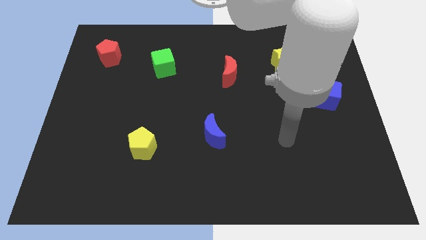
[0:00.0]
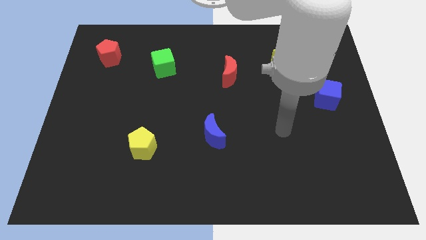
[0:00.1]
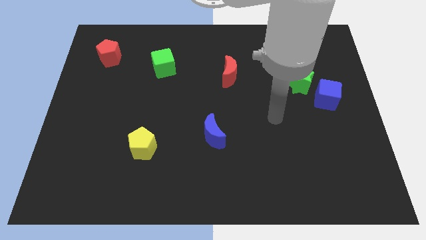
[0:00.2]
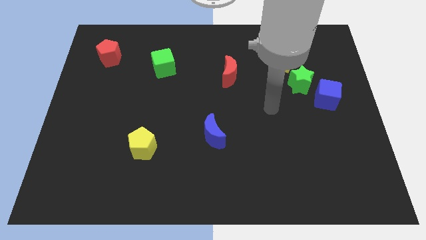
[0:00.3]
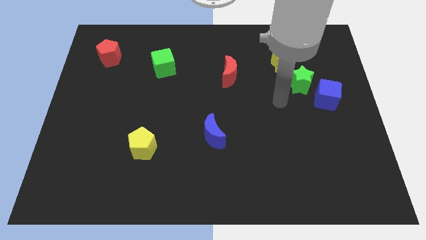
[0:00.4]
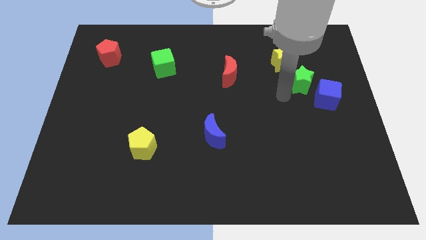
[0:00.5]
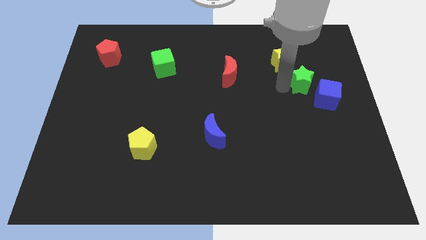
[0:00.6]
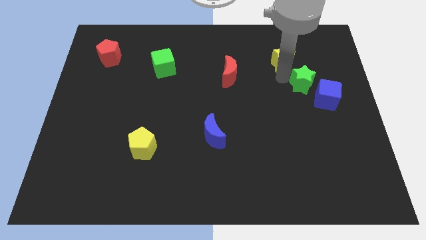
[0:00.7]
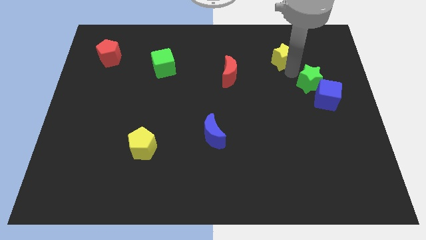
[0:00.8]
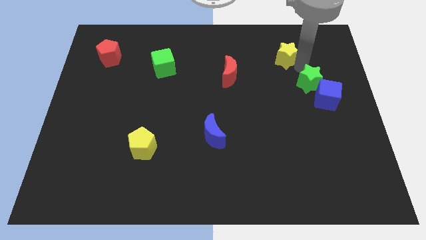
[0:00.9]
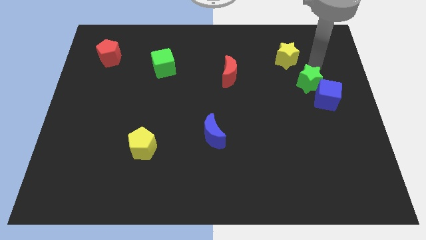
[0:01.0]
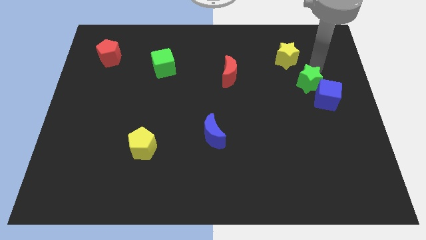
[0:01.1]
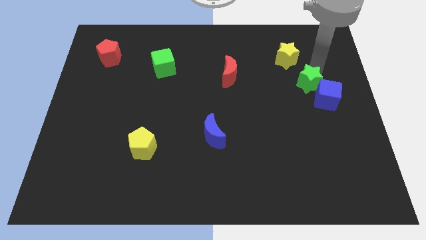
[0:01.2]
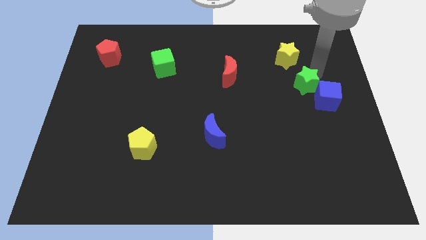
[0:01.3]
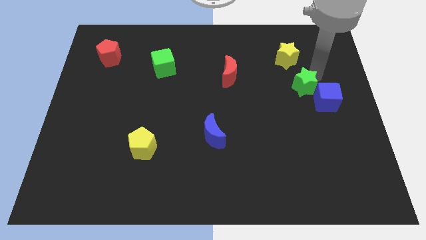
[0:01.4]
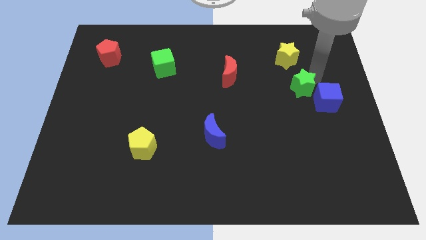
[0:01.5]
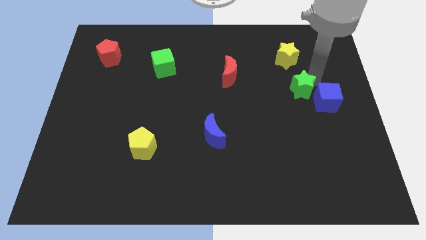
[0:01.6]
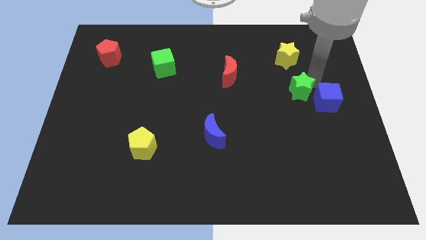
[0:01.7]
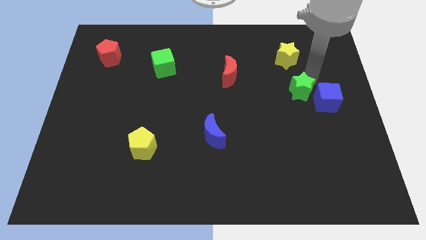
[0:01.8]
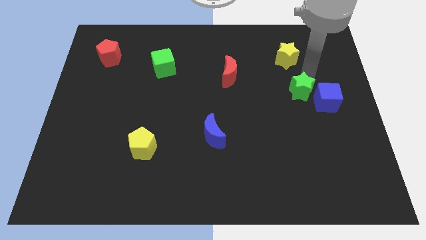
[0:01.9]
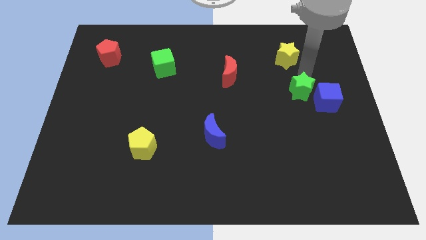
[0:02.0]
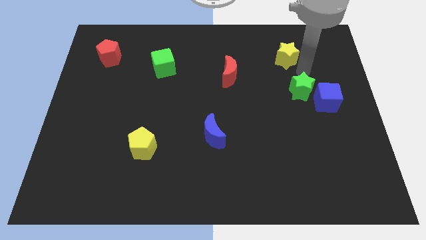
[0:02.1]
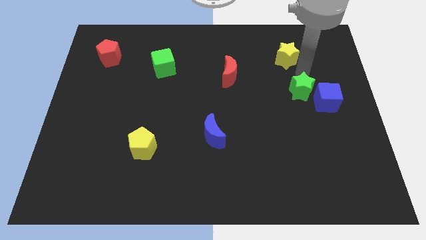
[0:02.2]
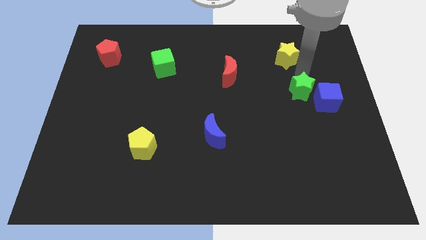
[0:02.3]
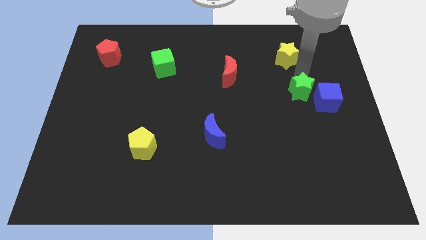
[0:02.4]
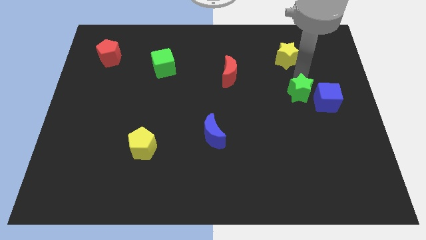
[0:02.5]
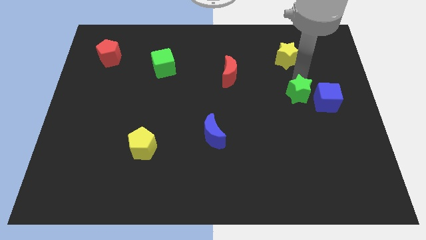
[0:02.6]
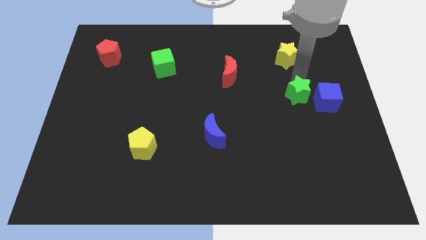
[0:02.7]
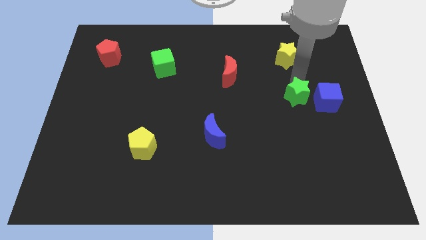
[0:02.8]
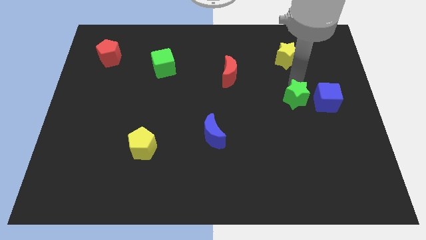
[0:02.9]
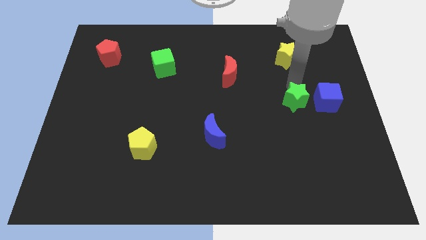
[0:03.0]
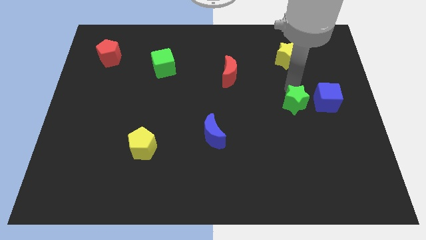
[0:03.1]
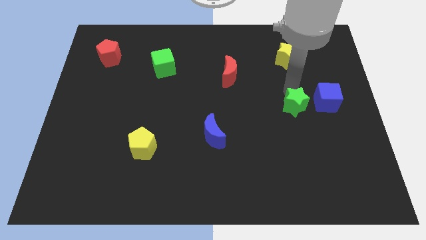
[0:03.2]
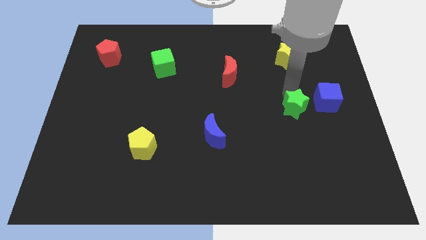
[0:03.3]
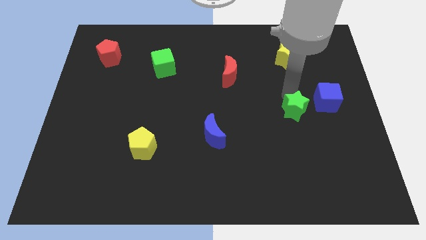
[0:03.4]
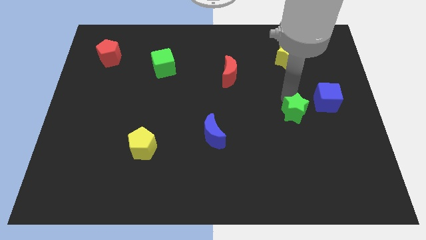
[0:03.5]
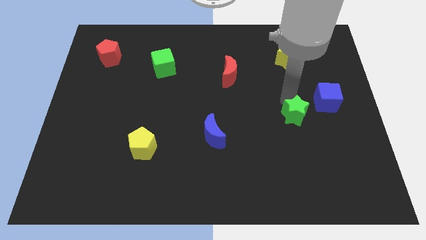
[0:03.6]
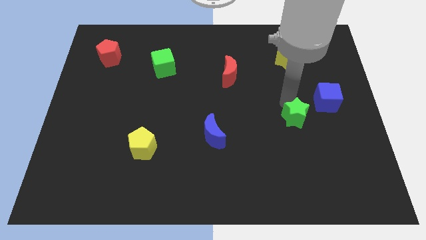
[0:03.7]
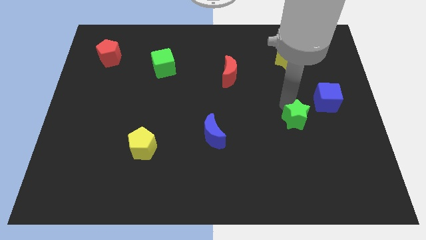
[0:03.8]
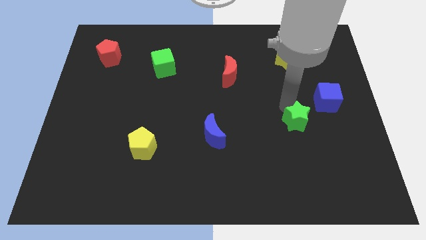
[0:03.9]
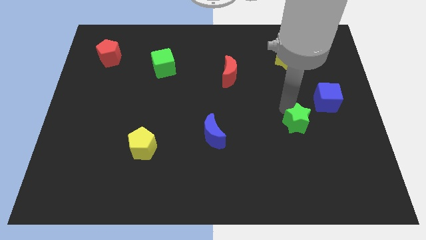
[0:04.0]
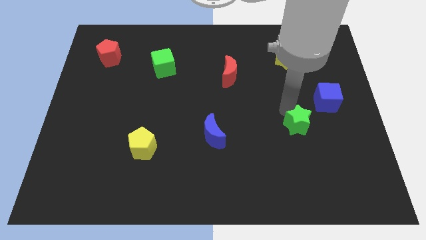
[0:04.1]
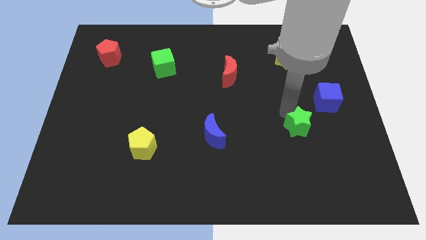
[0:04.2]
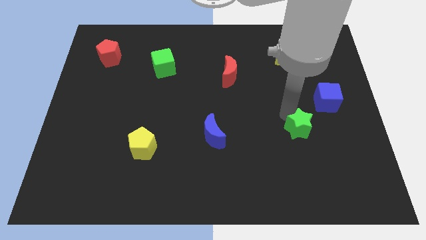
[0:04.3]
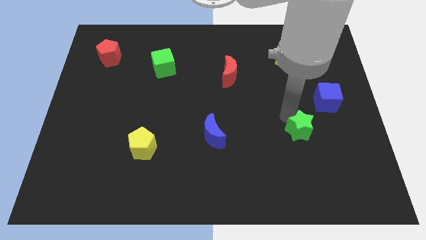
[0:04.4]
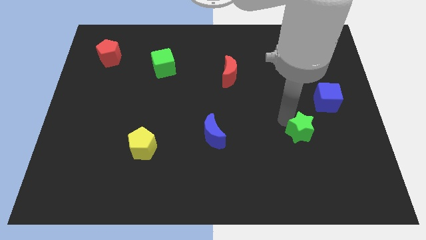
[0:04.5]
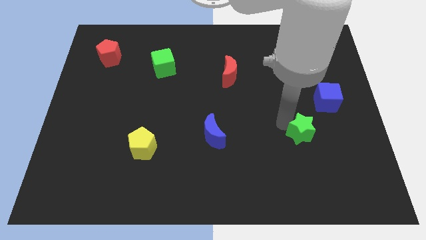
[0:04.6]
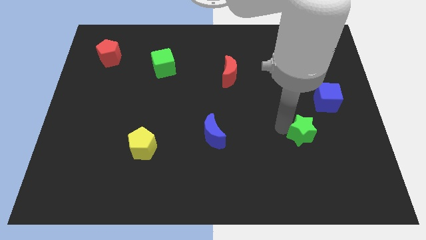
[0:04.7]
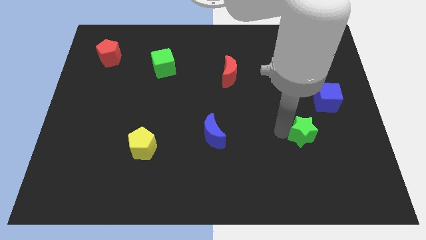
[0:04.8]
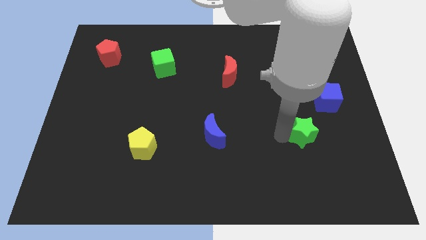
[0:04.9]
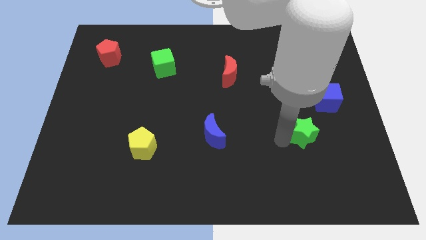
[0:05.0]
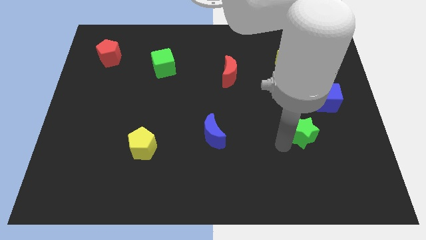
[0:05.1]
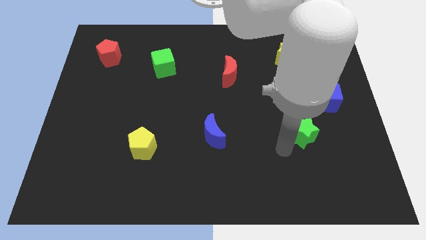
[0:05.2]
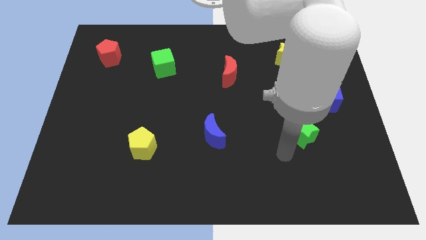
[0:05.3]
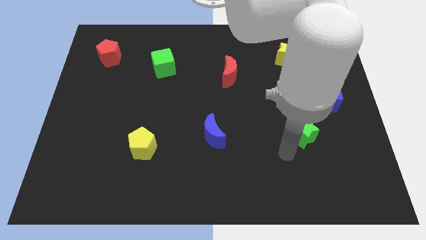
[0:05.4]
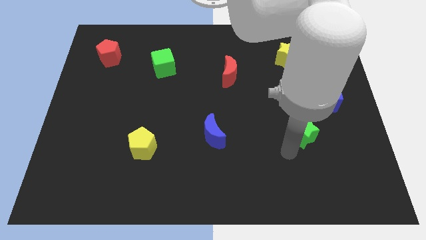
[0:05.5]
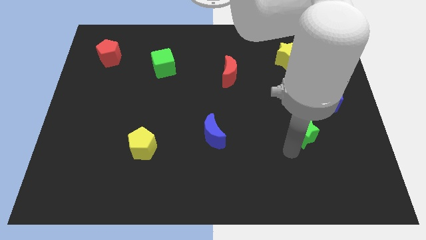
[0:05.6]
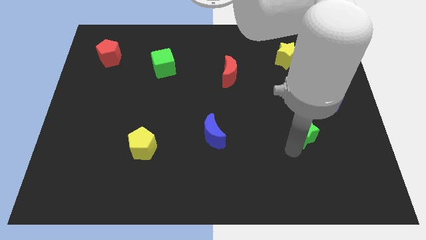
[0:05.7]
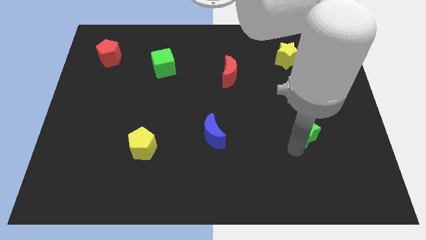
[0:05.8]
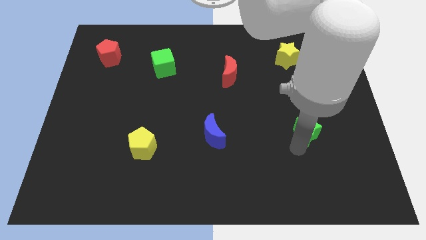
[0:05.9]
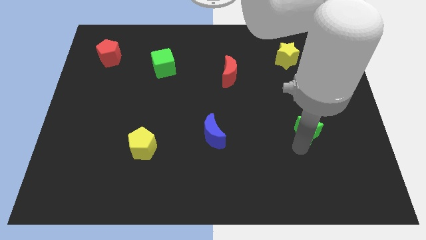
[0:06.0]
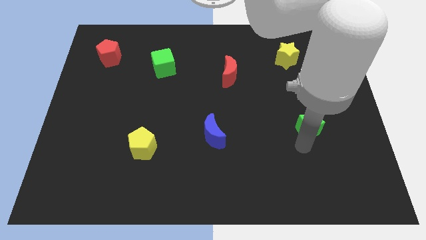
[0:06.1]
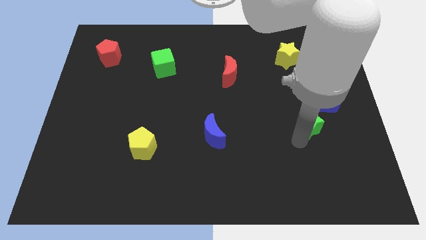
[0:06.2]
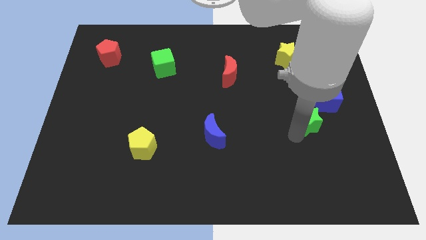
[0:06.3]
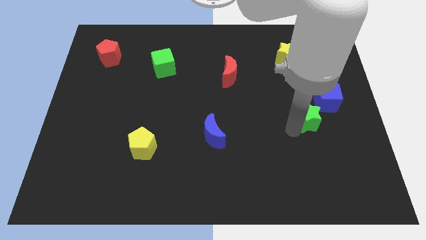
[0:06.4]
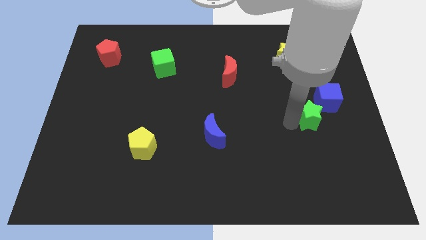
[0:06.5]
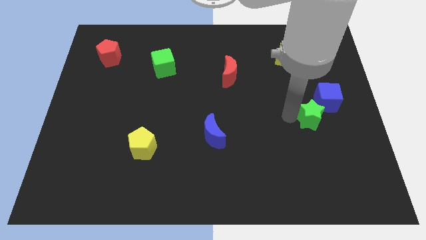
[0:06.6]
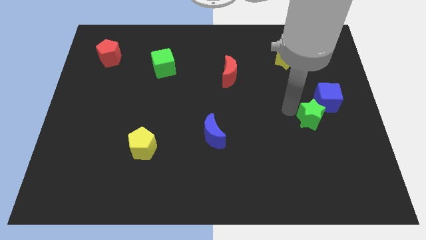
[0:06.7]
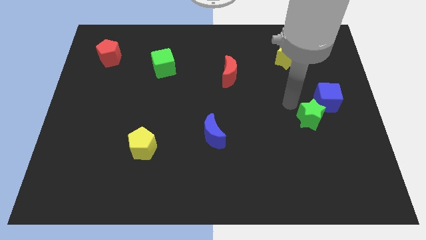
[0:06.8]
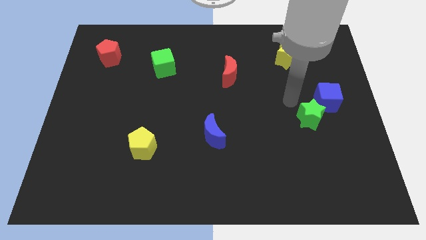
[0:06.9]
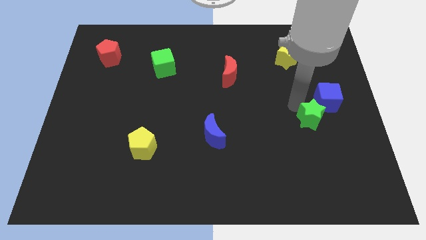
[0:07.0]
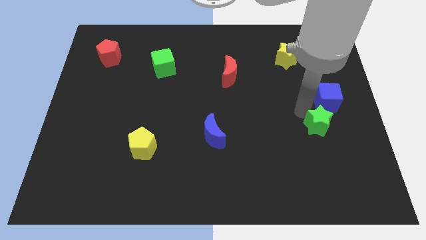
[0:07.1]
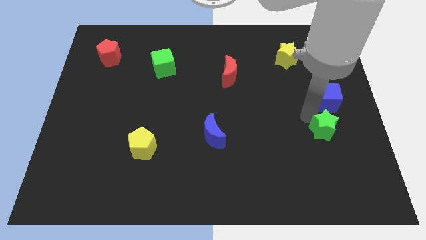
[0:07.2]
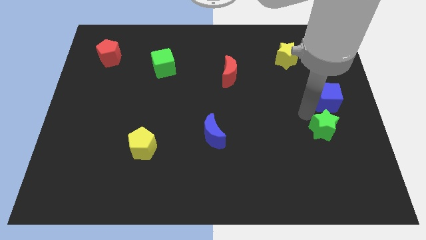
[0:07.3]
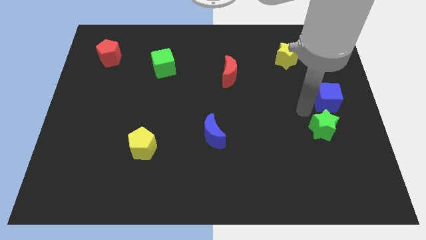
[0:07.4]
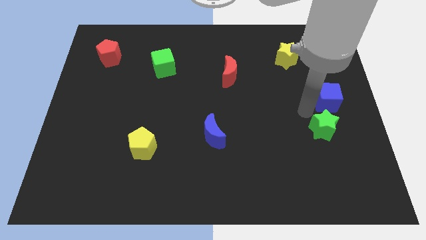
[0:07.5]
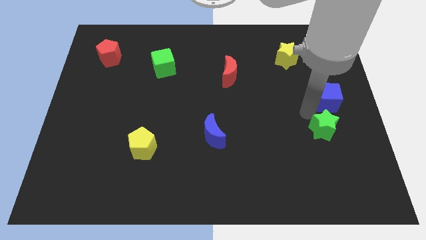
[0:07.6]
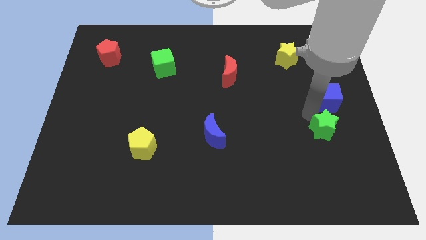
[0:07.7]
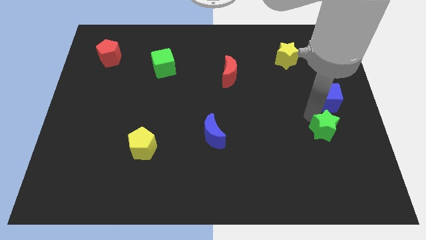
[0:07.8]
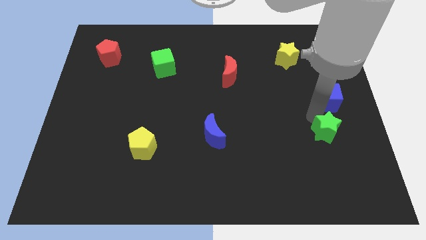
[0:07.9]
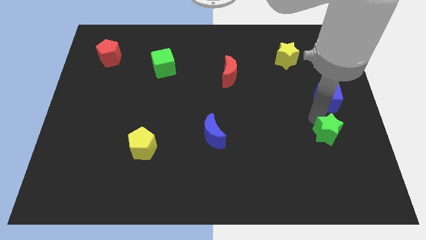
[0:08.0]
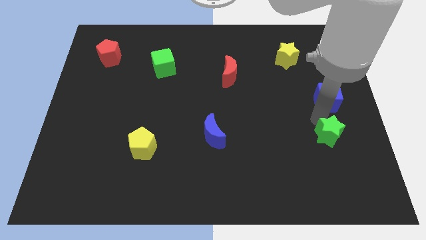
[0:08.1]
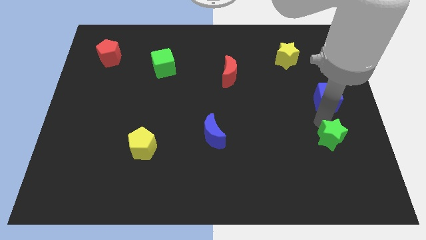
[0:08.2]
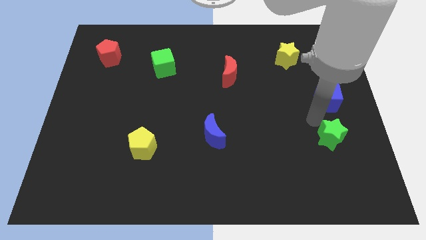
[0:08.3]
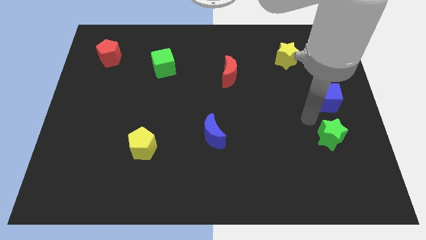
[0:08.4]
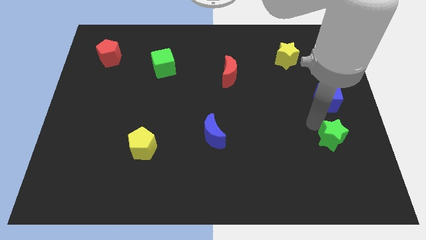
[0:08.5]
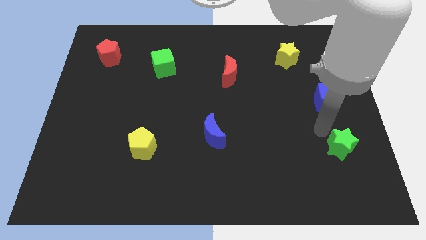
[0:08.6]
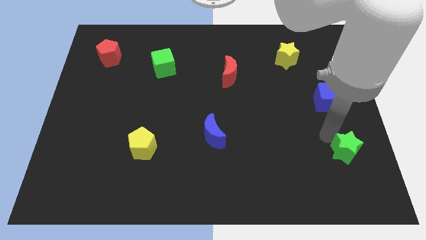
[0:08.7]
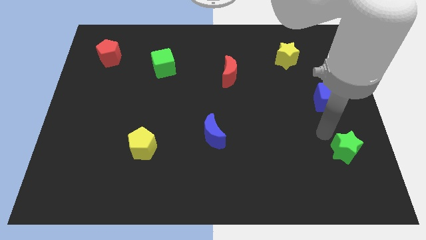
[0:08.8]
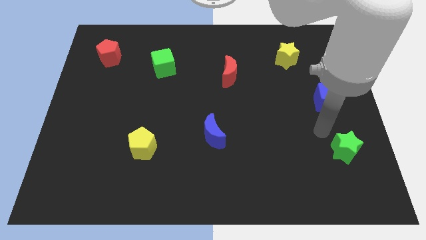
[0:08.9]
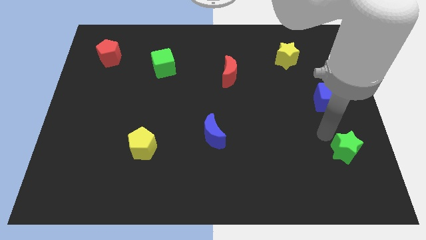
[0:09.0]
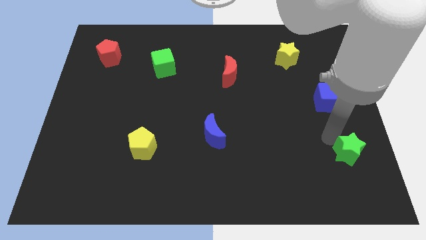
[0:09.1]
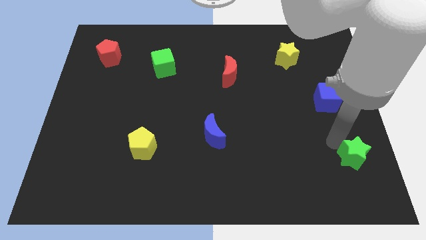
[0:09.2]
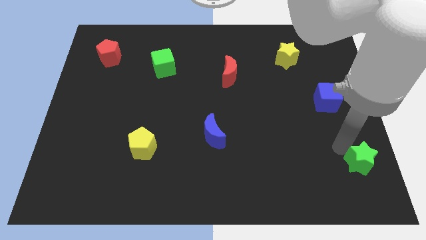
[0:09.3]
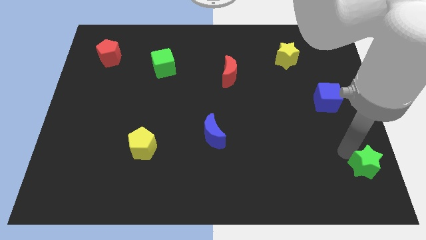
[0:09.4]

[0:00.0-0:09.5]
move the green star to the bottom right corner
